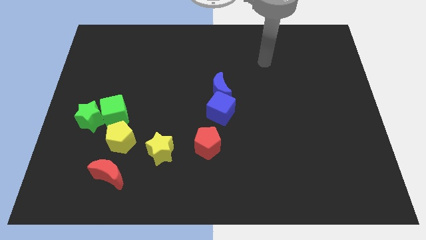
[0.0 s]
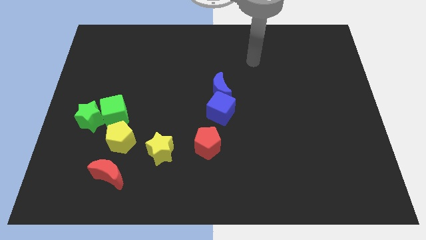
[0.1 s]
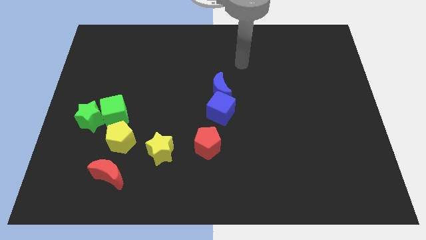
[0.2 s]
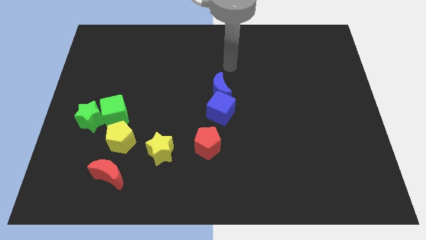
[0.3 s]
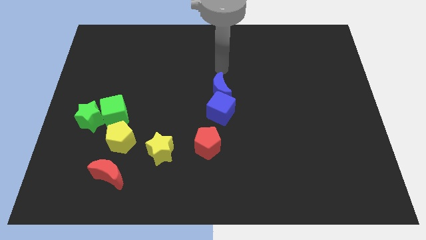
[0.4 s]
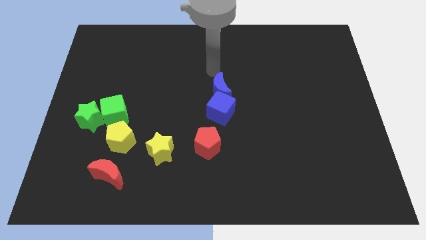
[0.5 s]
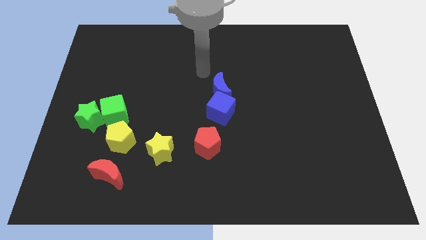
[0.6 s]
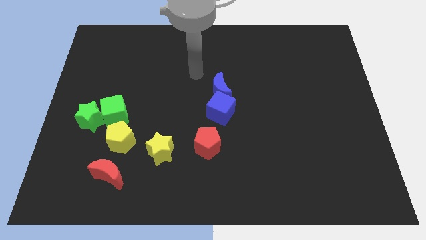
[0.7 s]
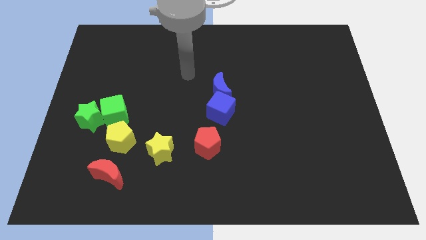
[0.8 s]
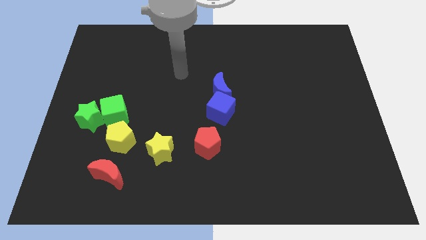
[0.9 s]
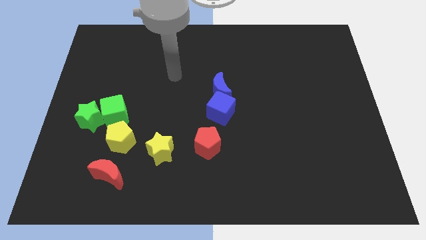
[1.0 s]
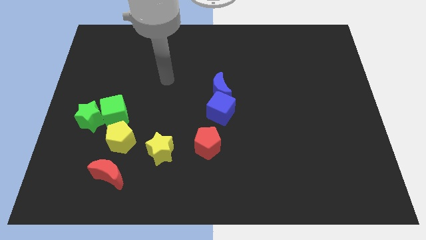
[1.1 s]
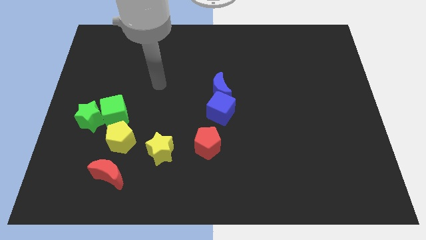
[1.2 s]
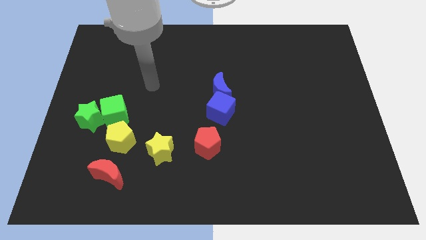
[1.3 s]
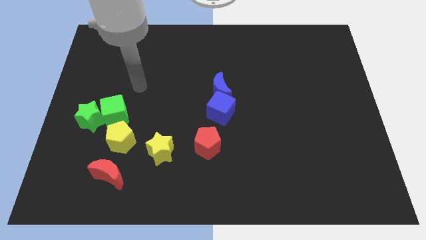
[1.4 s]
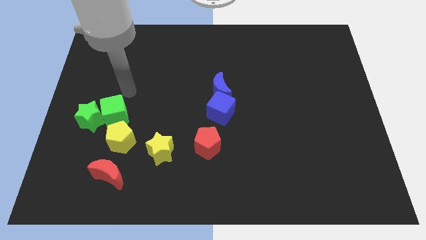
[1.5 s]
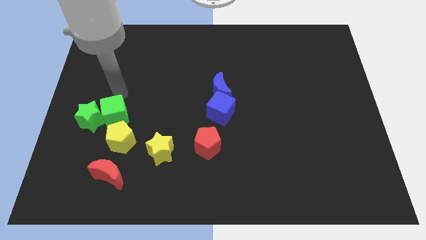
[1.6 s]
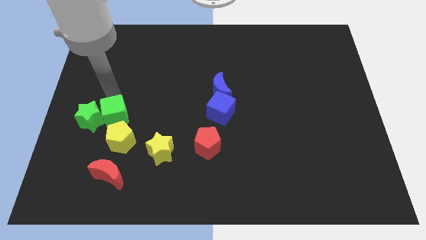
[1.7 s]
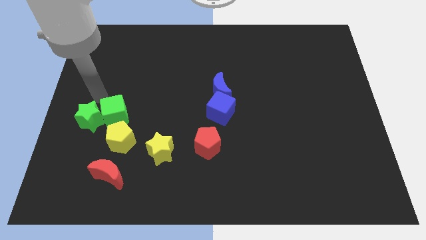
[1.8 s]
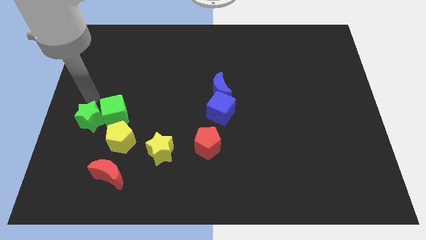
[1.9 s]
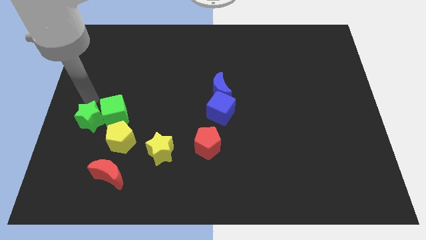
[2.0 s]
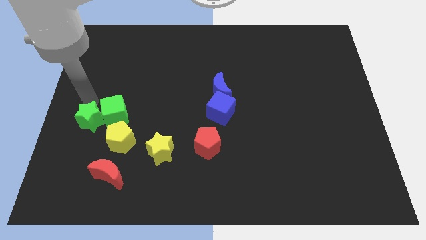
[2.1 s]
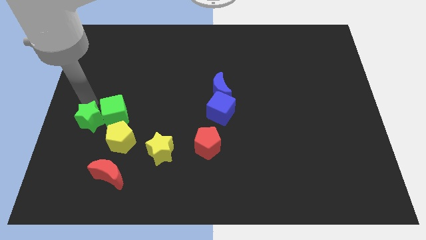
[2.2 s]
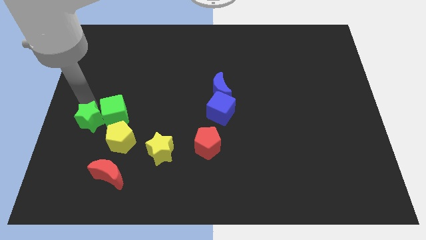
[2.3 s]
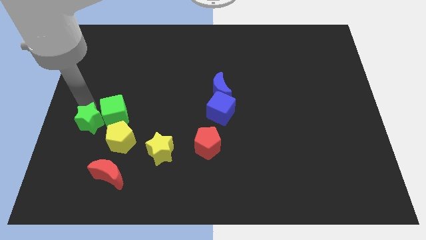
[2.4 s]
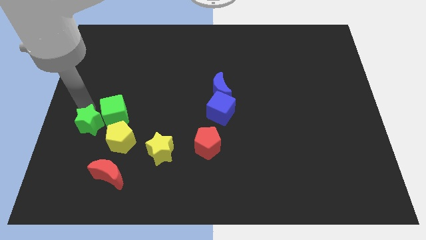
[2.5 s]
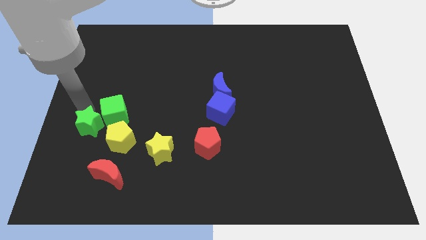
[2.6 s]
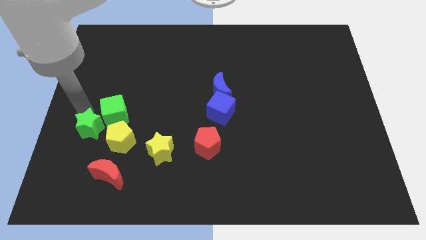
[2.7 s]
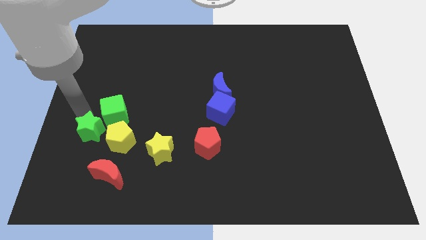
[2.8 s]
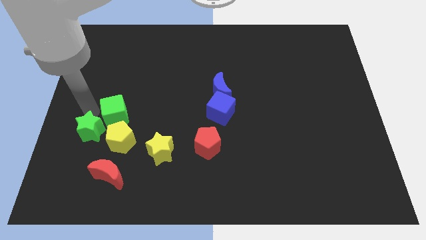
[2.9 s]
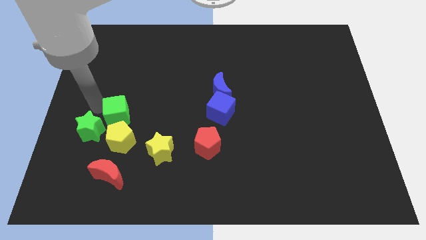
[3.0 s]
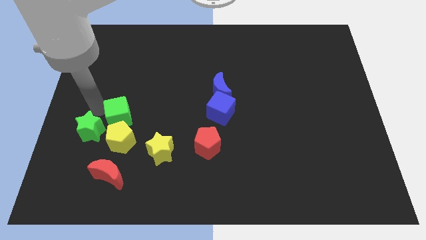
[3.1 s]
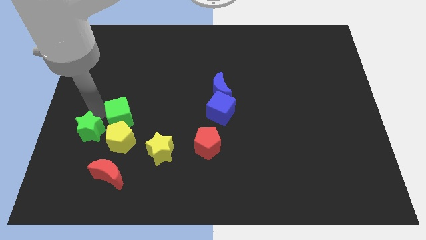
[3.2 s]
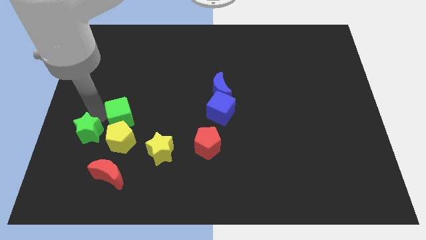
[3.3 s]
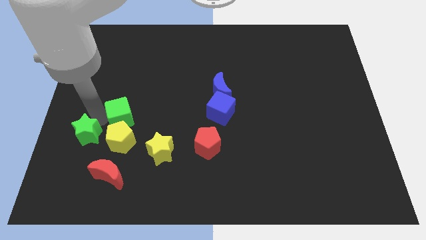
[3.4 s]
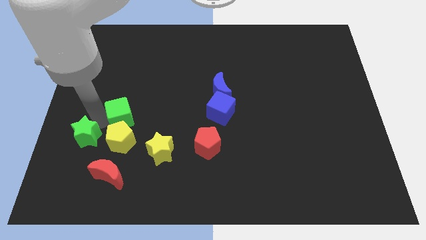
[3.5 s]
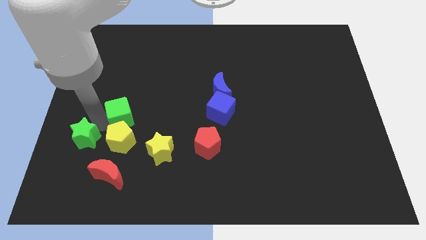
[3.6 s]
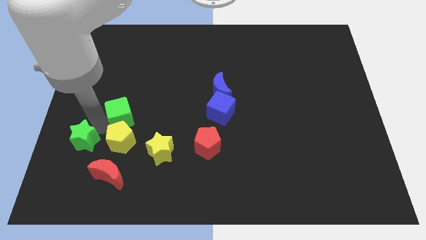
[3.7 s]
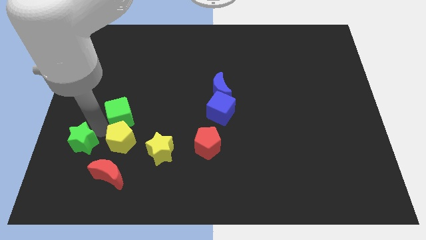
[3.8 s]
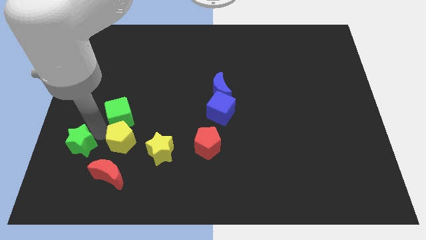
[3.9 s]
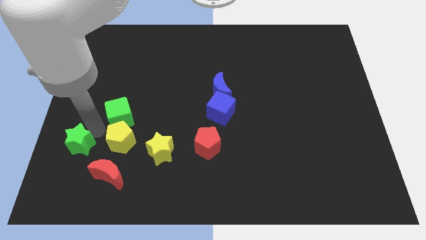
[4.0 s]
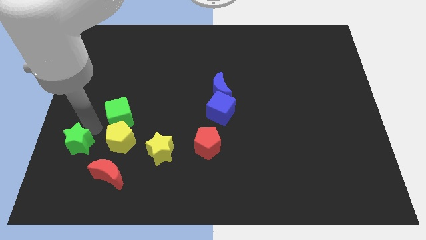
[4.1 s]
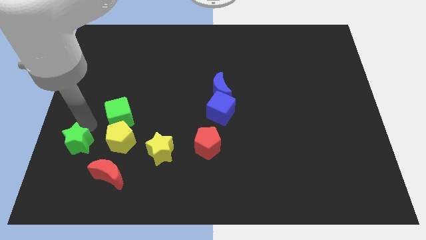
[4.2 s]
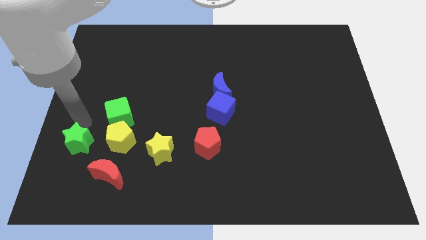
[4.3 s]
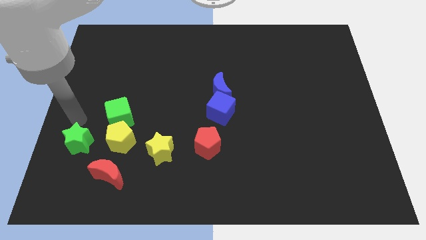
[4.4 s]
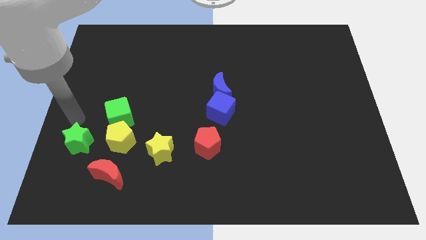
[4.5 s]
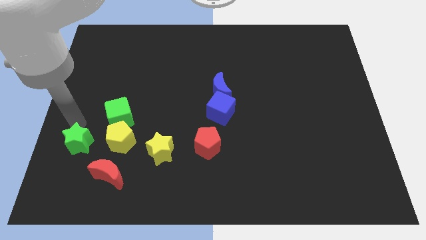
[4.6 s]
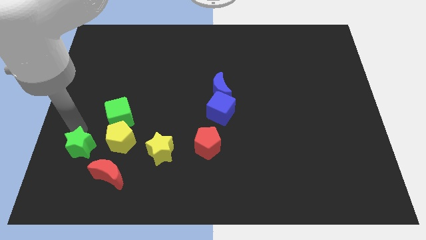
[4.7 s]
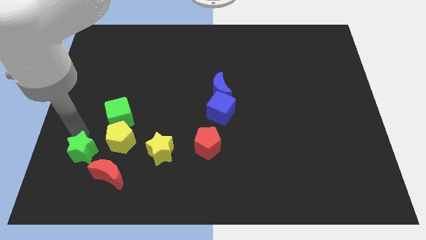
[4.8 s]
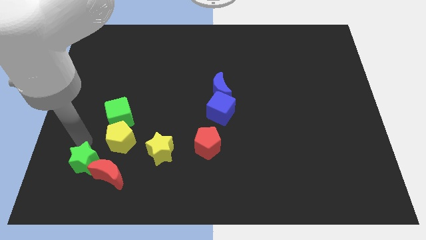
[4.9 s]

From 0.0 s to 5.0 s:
slightly push the green star diagonally down and to the right

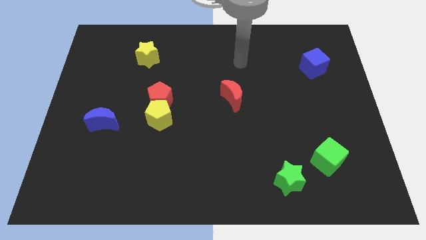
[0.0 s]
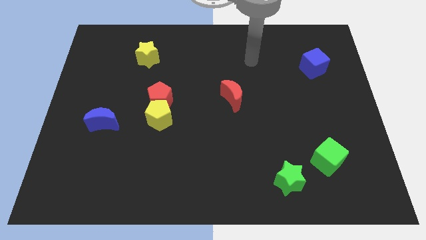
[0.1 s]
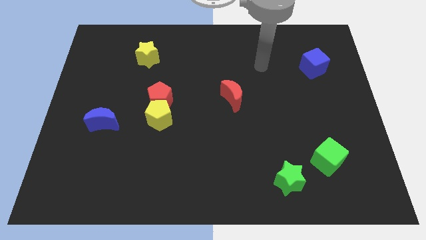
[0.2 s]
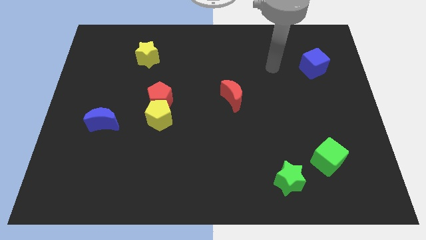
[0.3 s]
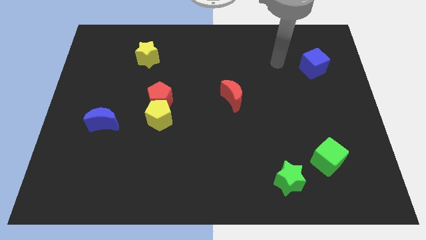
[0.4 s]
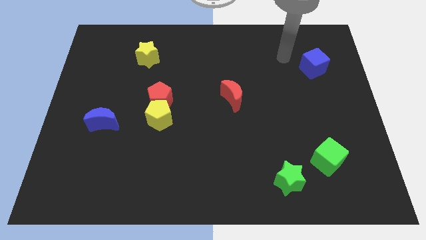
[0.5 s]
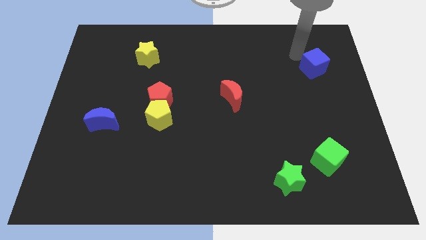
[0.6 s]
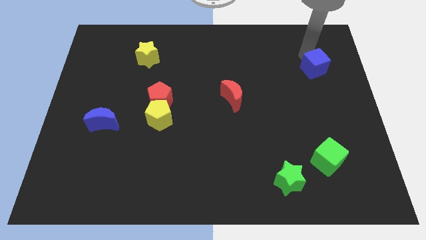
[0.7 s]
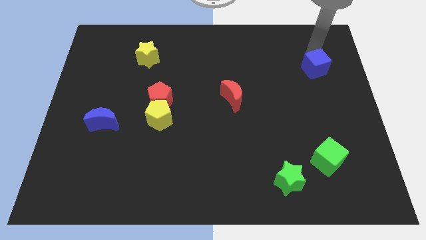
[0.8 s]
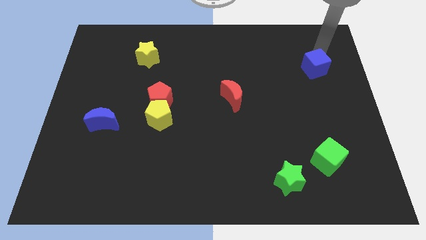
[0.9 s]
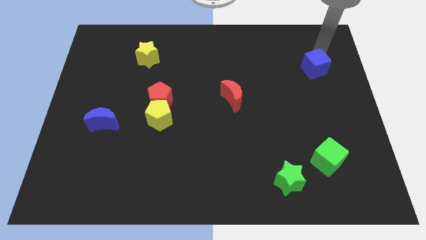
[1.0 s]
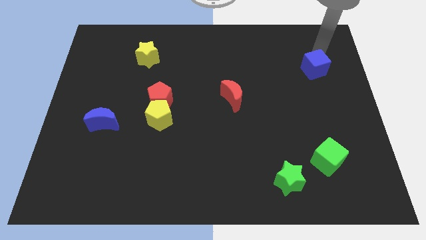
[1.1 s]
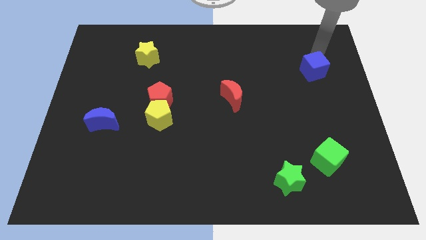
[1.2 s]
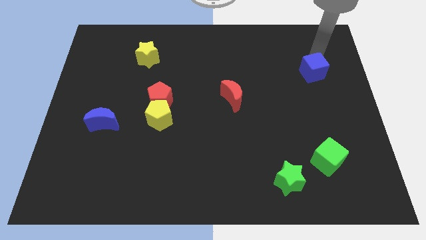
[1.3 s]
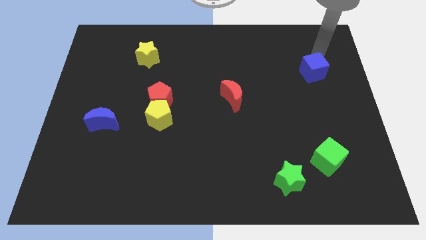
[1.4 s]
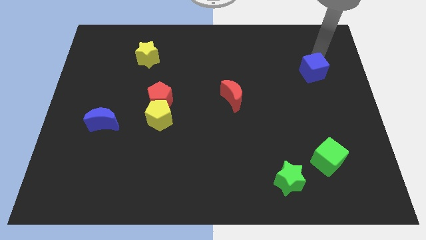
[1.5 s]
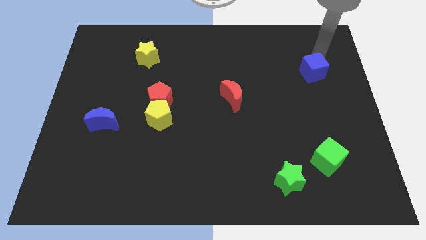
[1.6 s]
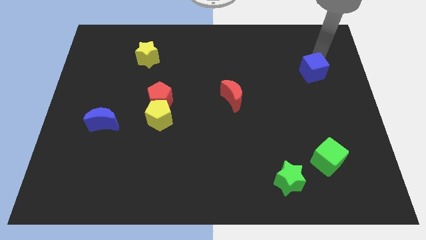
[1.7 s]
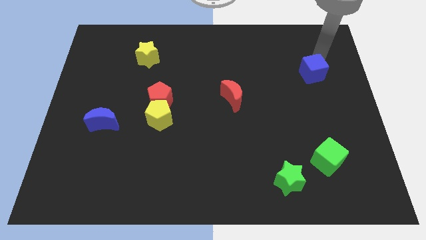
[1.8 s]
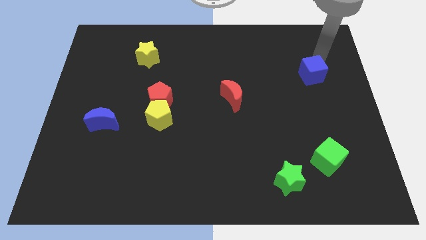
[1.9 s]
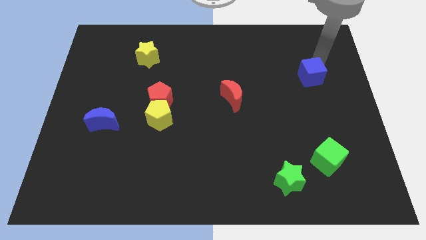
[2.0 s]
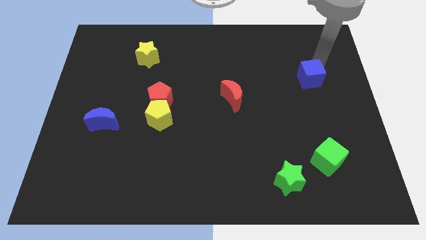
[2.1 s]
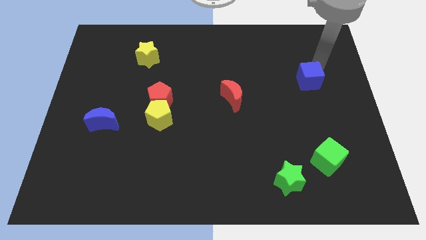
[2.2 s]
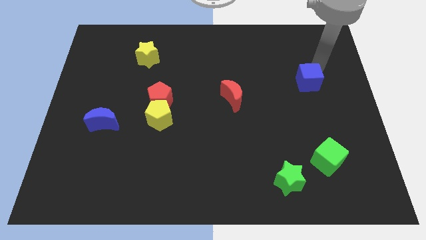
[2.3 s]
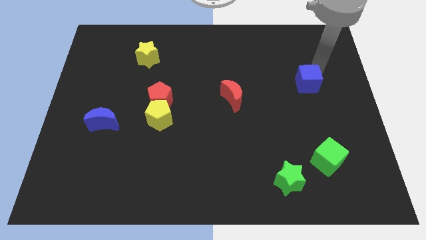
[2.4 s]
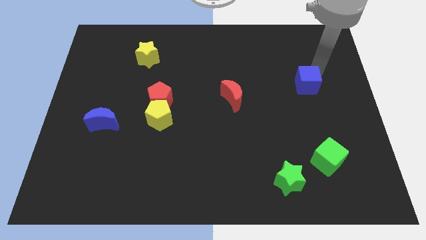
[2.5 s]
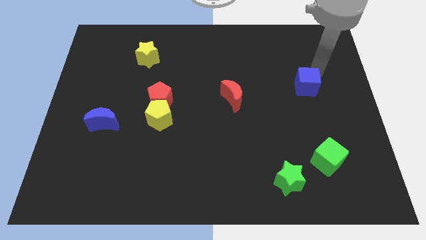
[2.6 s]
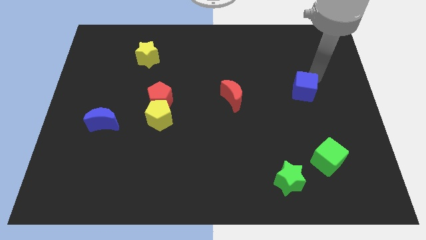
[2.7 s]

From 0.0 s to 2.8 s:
move the blue cube down a bit
